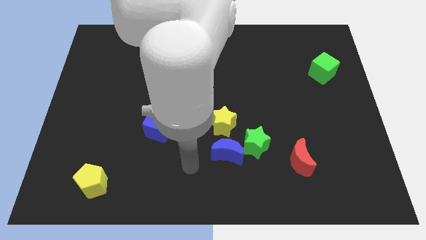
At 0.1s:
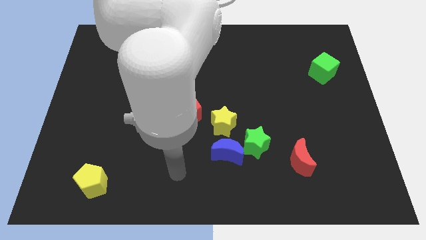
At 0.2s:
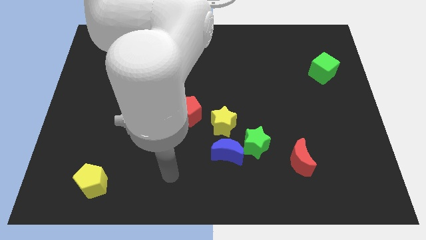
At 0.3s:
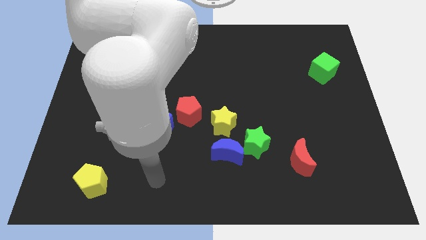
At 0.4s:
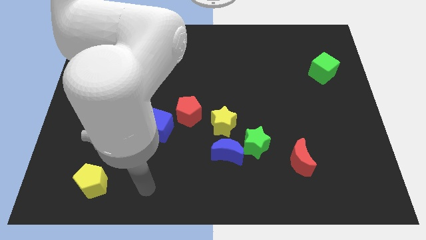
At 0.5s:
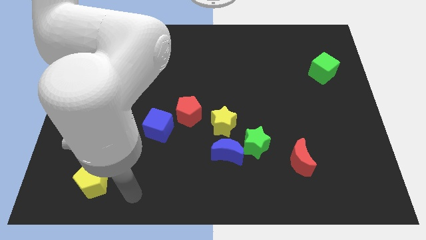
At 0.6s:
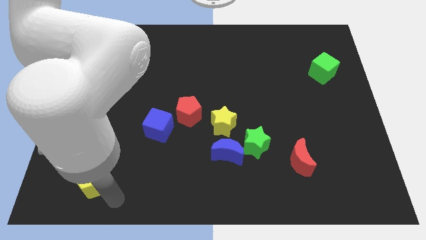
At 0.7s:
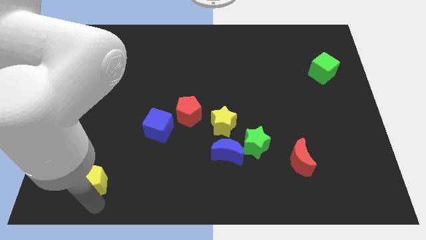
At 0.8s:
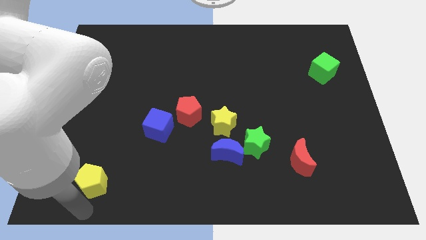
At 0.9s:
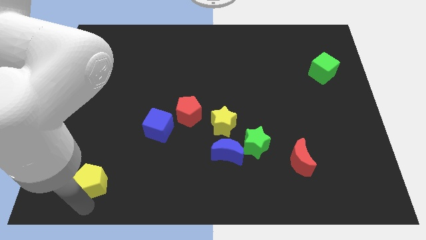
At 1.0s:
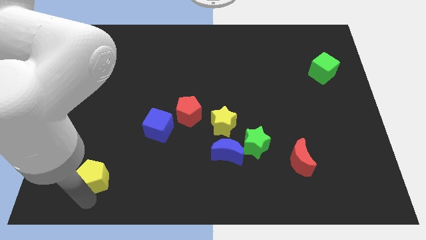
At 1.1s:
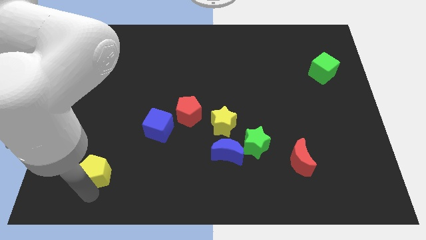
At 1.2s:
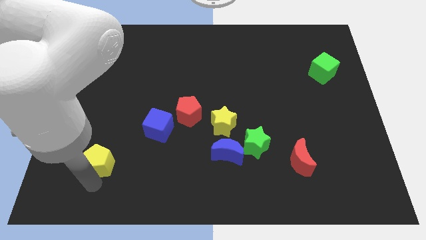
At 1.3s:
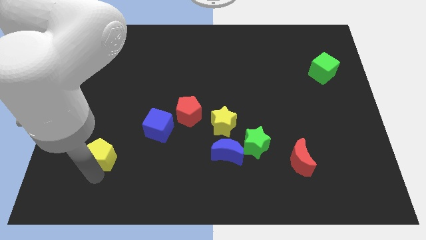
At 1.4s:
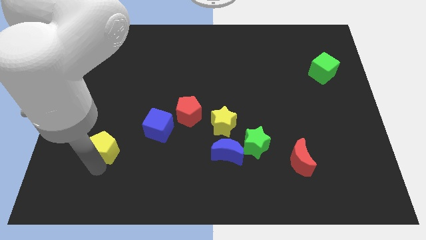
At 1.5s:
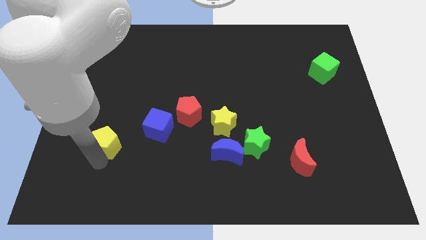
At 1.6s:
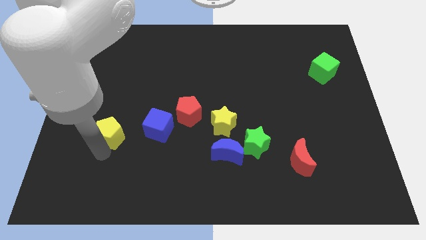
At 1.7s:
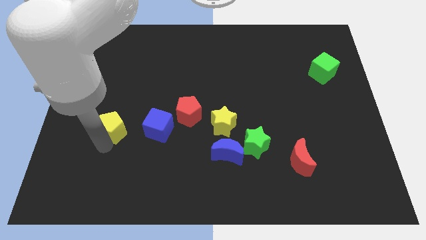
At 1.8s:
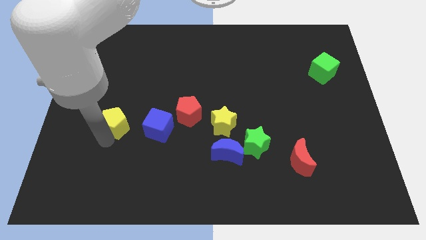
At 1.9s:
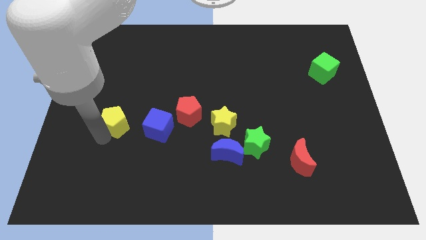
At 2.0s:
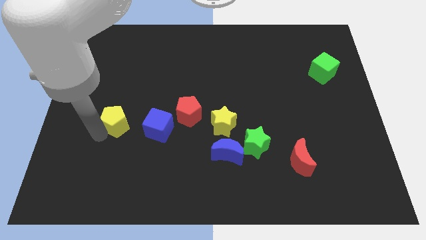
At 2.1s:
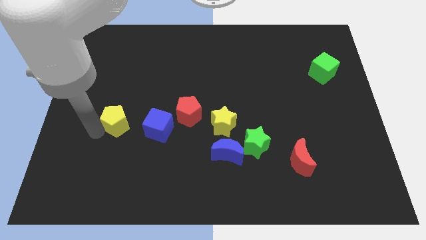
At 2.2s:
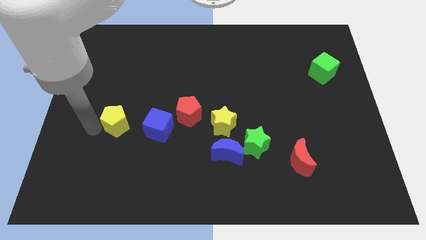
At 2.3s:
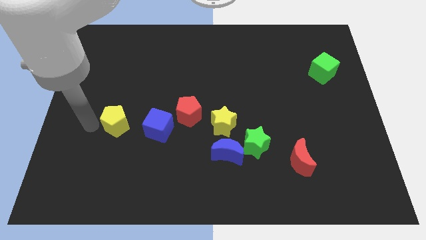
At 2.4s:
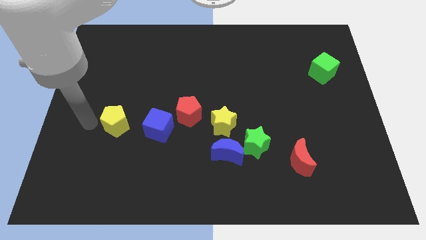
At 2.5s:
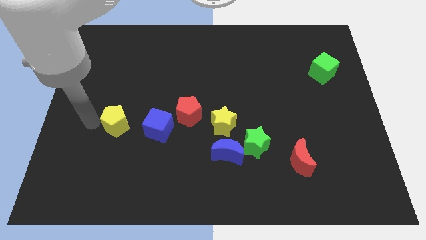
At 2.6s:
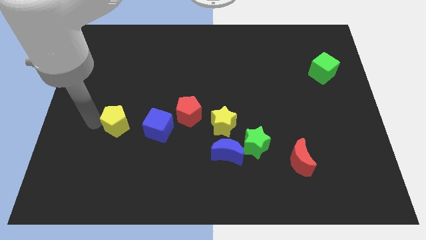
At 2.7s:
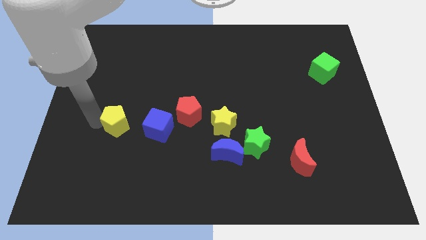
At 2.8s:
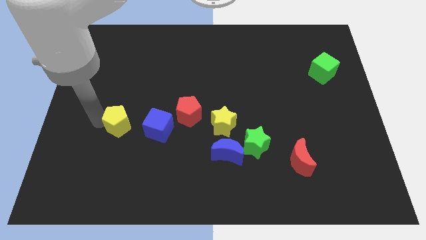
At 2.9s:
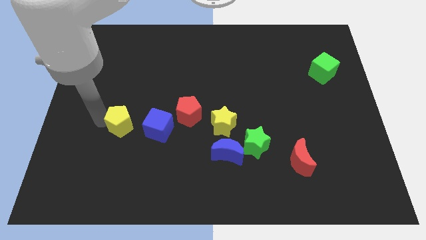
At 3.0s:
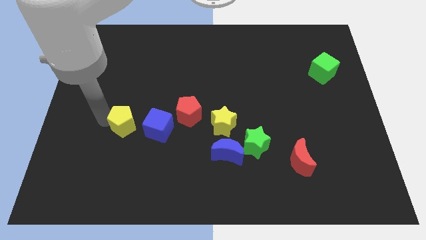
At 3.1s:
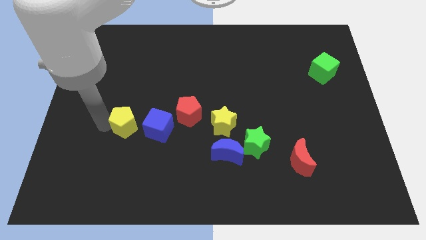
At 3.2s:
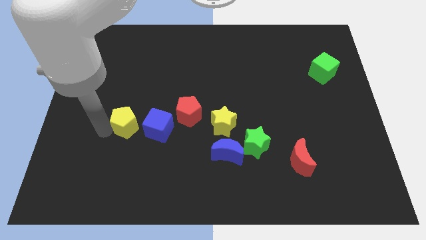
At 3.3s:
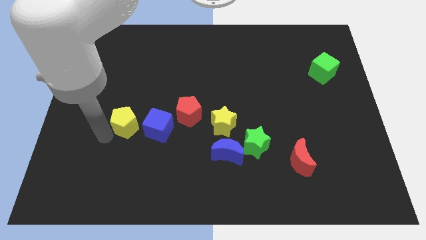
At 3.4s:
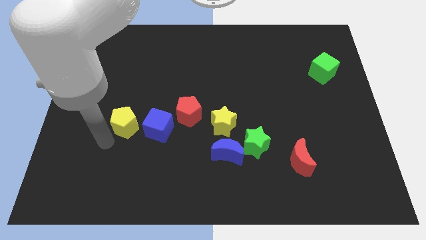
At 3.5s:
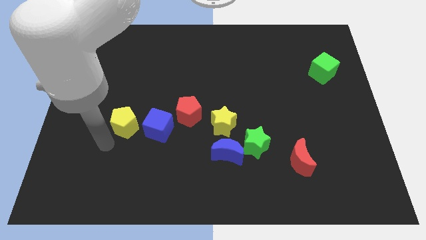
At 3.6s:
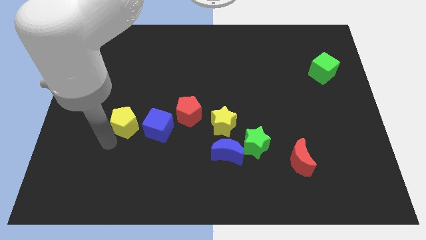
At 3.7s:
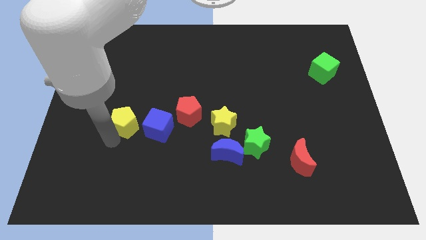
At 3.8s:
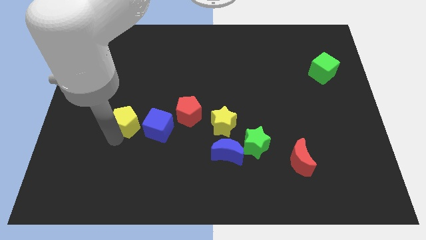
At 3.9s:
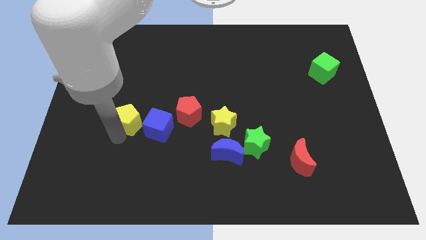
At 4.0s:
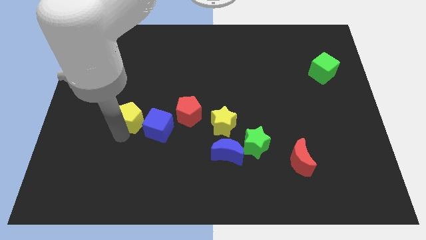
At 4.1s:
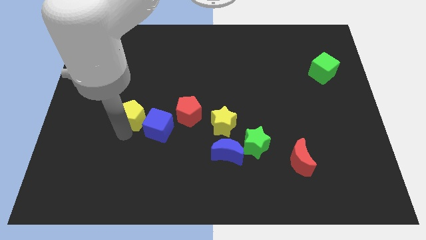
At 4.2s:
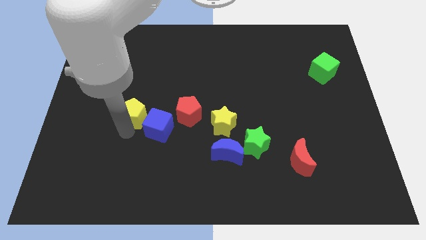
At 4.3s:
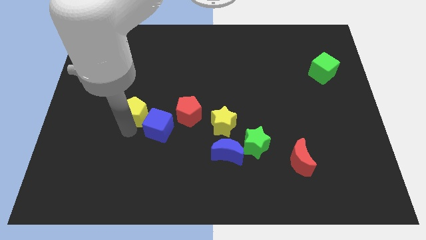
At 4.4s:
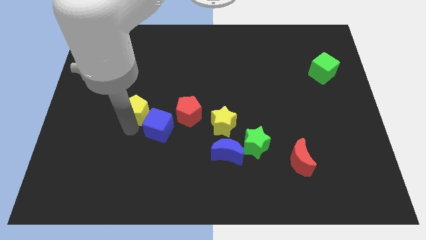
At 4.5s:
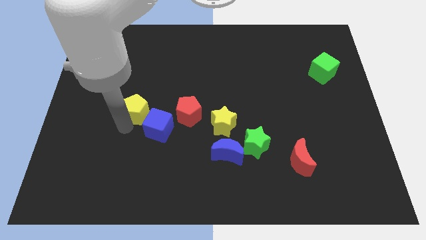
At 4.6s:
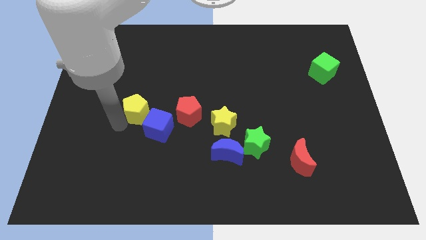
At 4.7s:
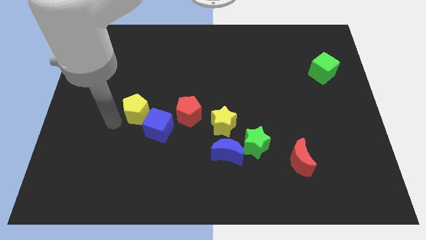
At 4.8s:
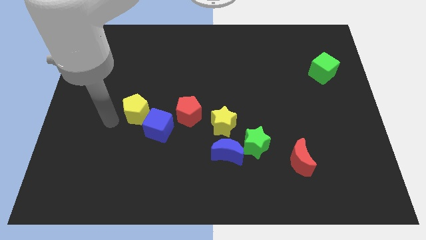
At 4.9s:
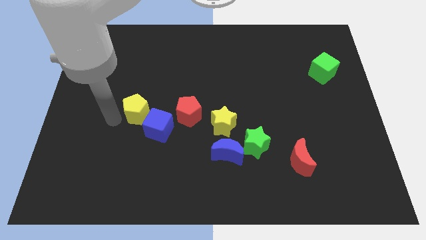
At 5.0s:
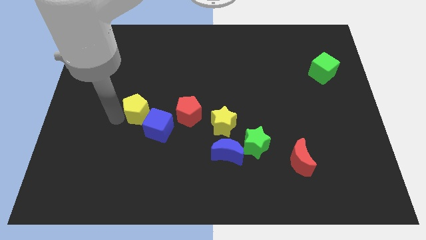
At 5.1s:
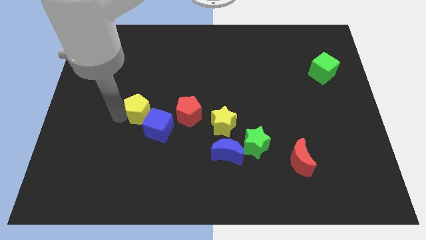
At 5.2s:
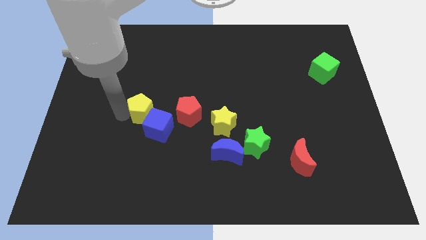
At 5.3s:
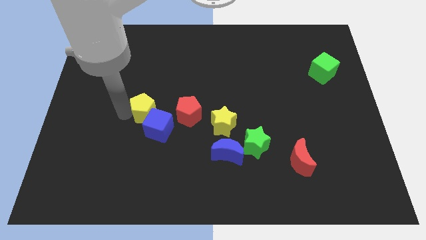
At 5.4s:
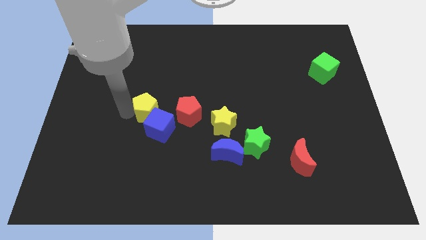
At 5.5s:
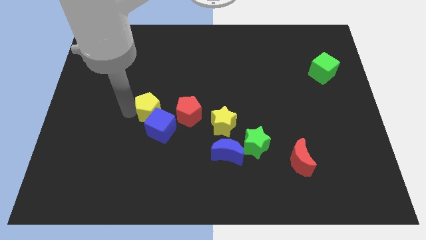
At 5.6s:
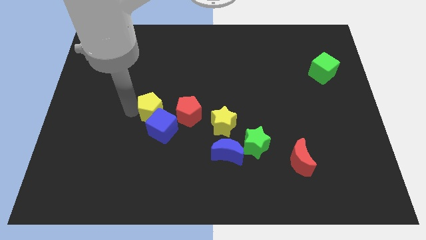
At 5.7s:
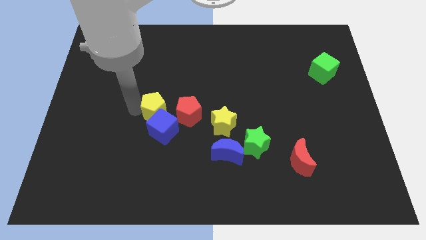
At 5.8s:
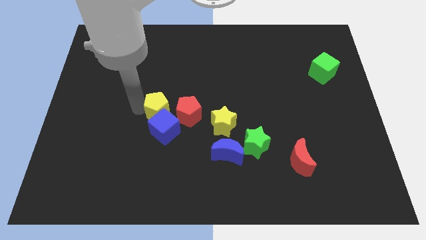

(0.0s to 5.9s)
move the yellow pentagon upwards and right diagonally

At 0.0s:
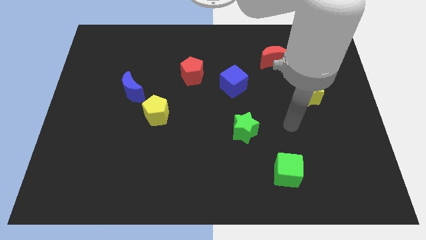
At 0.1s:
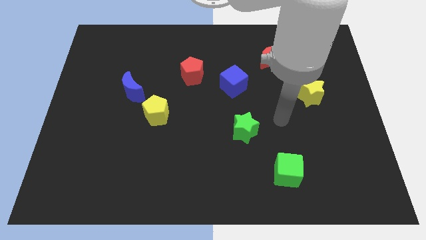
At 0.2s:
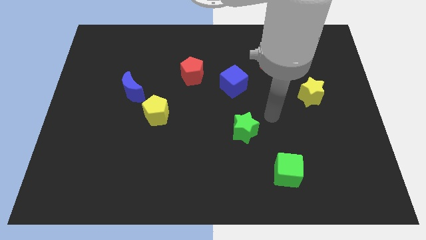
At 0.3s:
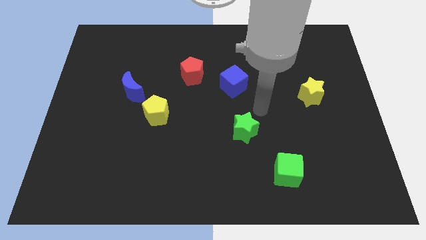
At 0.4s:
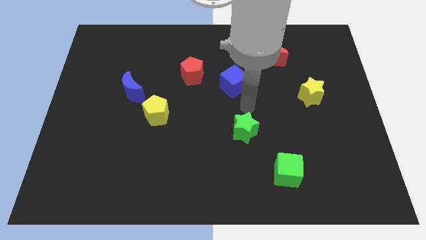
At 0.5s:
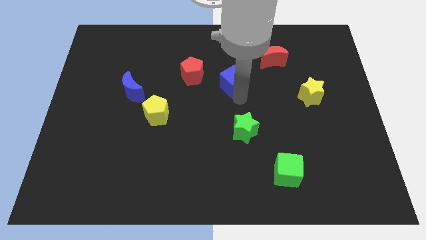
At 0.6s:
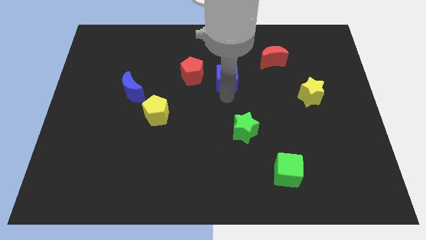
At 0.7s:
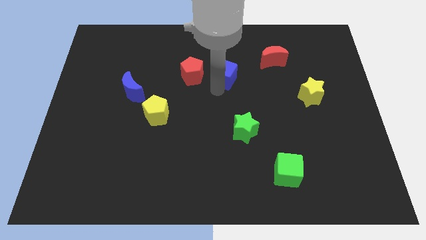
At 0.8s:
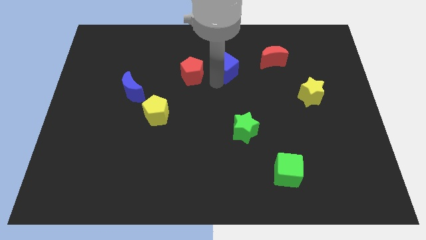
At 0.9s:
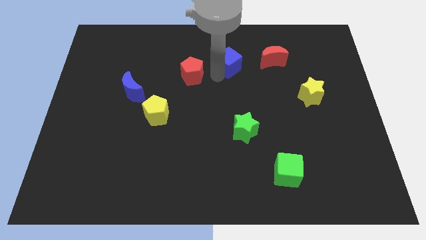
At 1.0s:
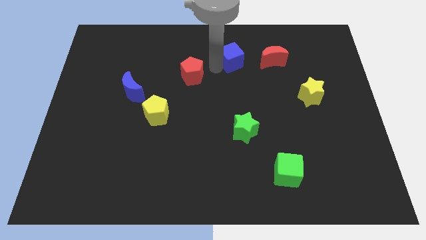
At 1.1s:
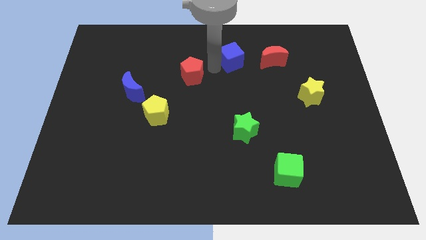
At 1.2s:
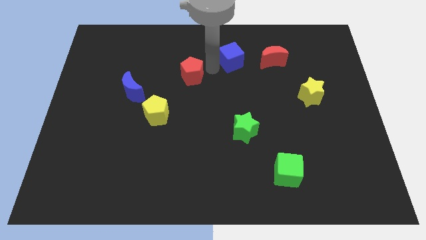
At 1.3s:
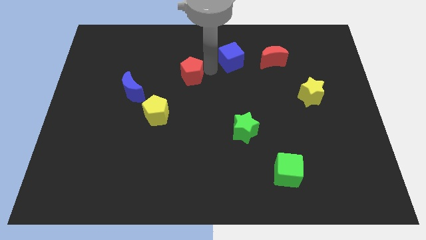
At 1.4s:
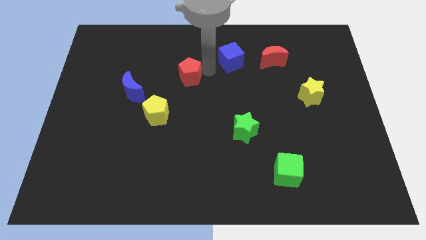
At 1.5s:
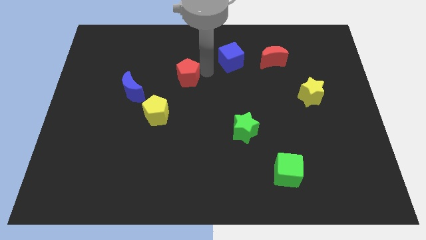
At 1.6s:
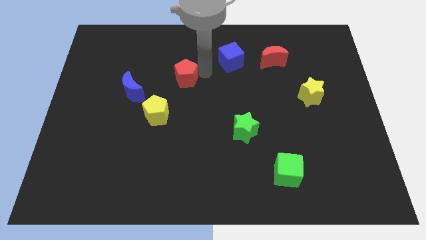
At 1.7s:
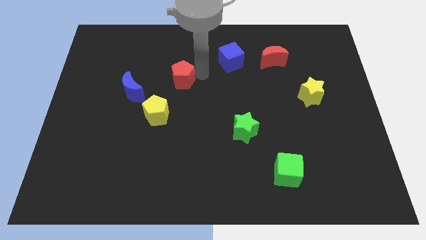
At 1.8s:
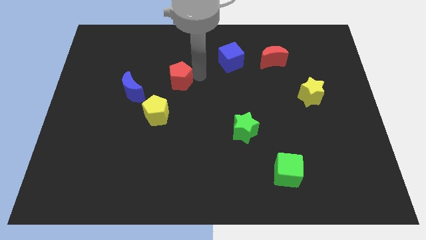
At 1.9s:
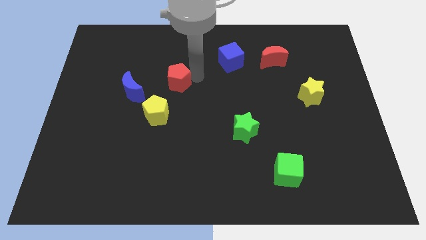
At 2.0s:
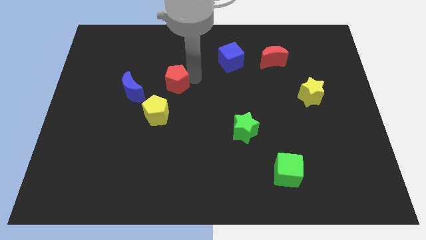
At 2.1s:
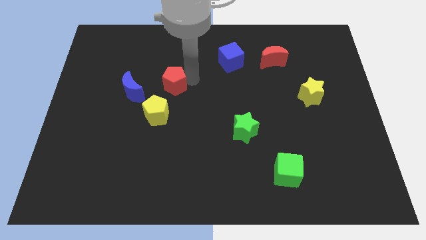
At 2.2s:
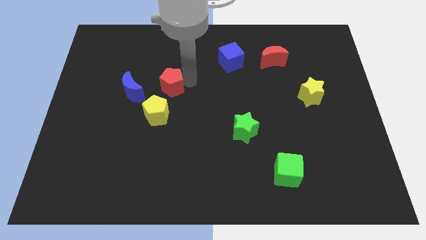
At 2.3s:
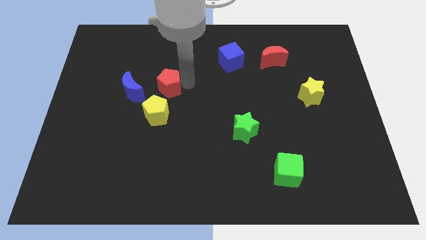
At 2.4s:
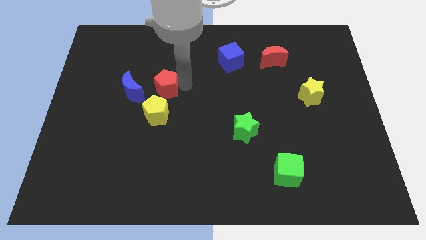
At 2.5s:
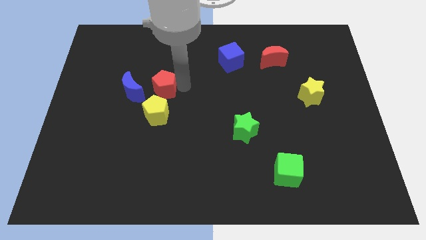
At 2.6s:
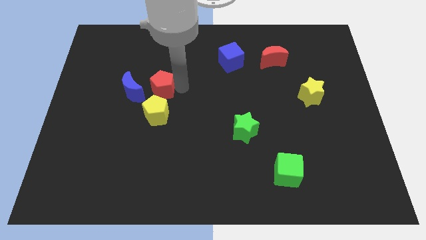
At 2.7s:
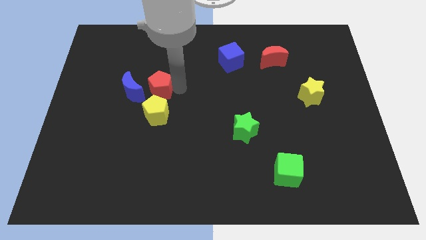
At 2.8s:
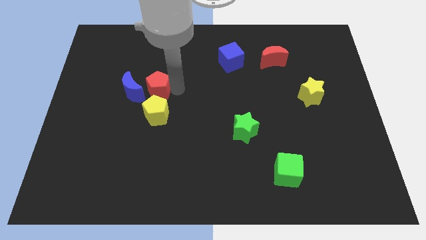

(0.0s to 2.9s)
slide the red pentagon left a little bit
